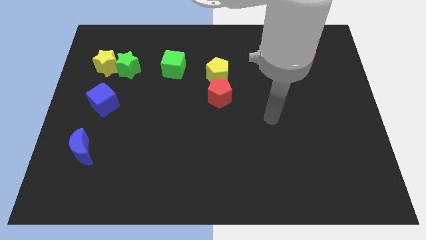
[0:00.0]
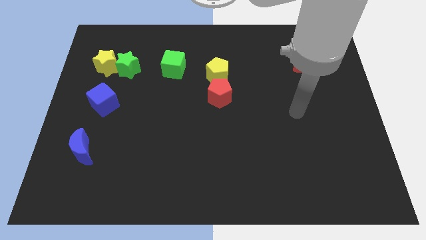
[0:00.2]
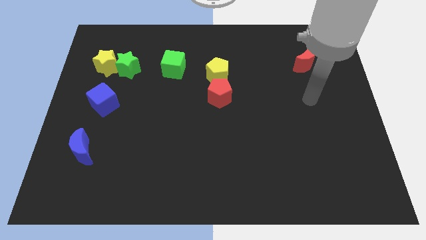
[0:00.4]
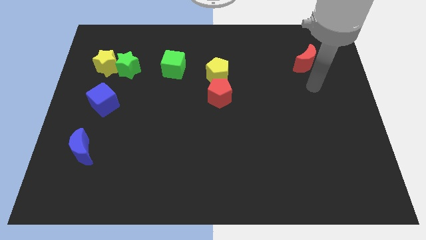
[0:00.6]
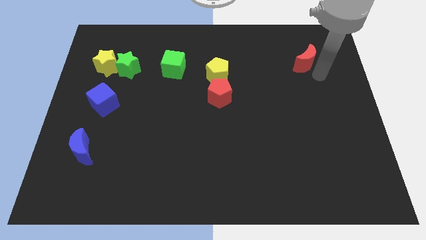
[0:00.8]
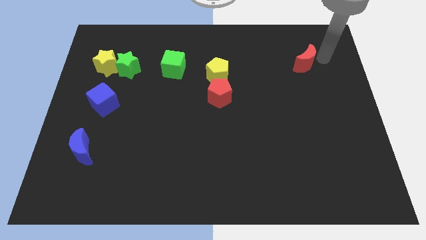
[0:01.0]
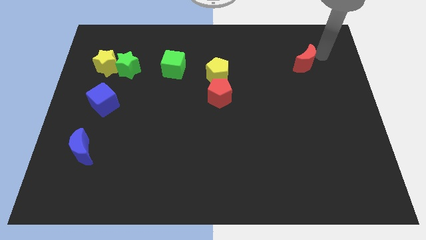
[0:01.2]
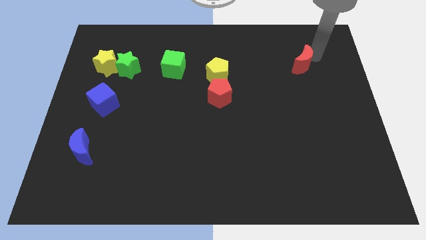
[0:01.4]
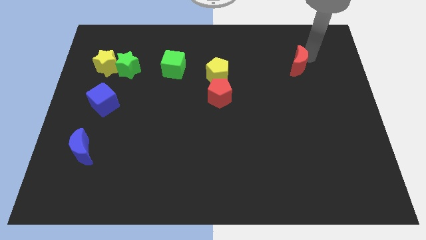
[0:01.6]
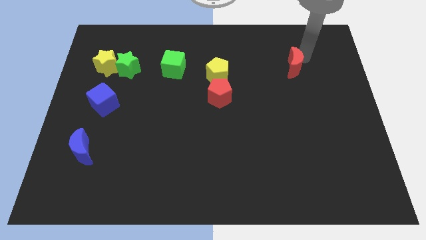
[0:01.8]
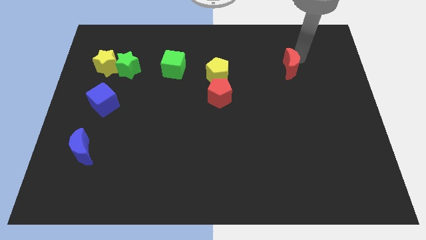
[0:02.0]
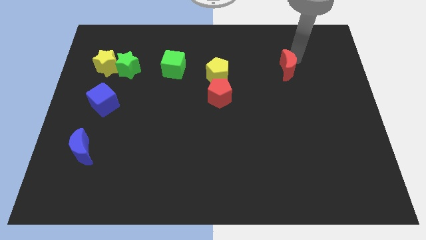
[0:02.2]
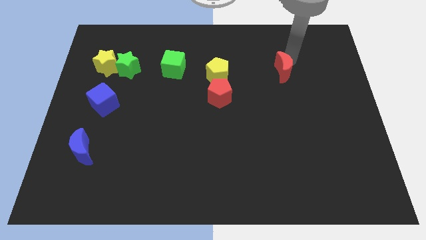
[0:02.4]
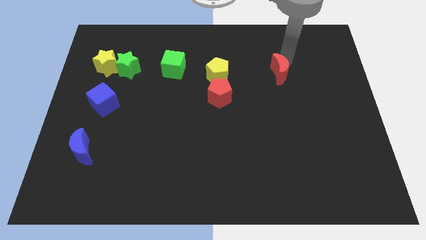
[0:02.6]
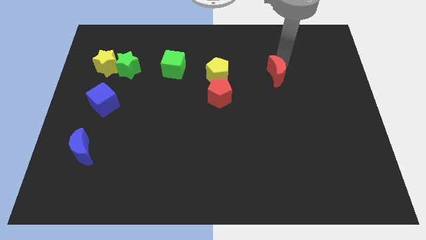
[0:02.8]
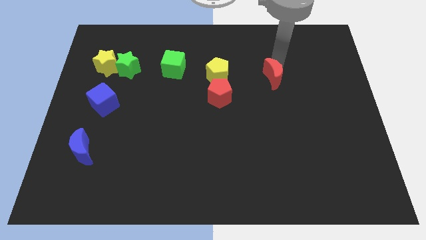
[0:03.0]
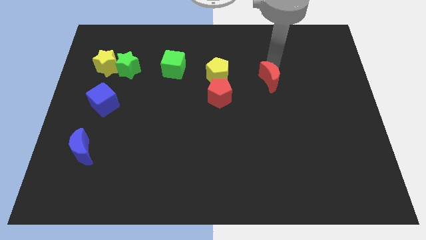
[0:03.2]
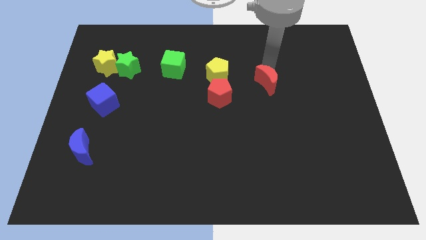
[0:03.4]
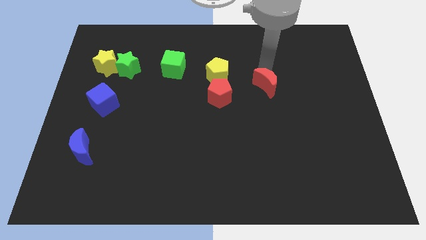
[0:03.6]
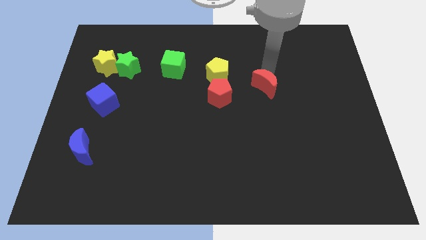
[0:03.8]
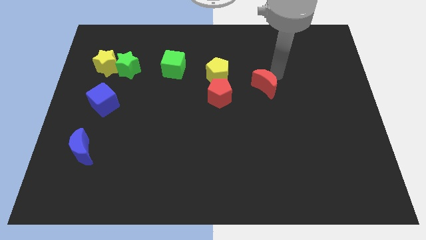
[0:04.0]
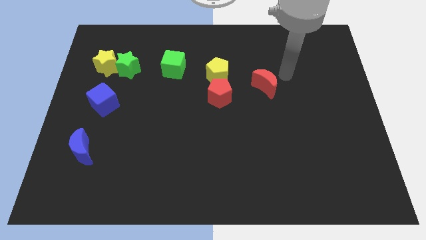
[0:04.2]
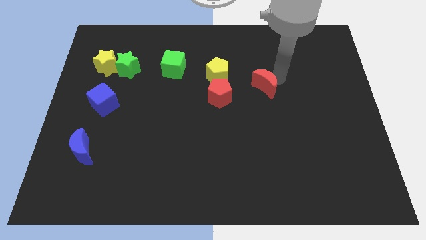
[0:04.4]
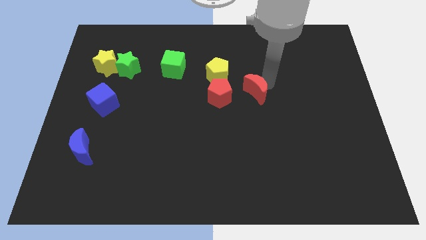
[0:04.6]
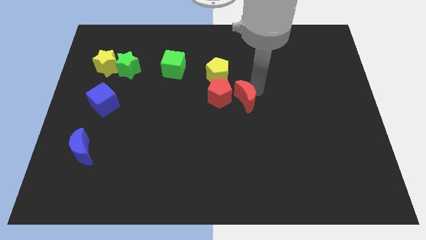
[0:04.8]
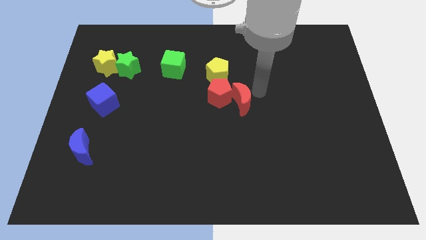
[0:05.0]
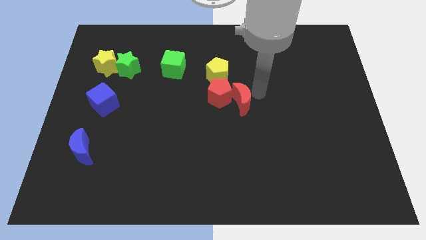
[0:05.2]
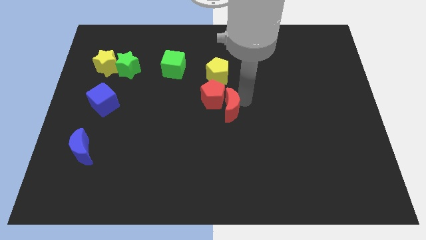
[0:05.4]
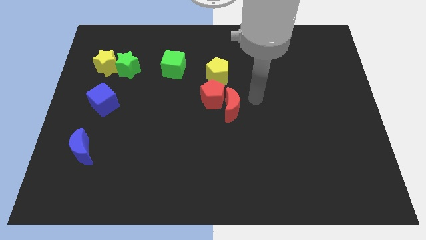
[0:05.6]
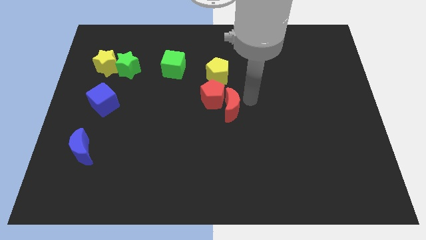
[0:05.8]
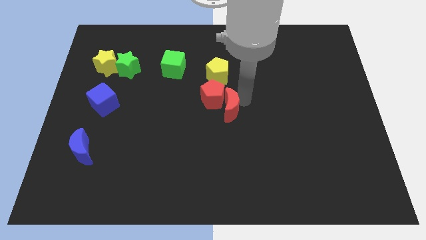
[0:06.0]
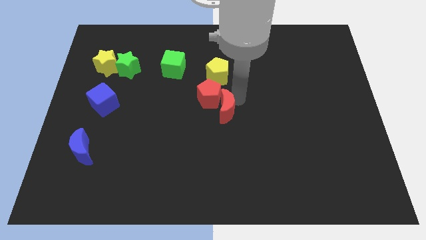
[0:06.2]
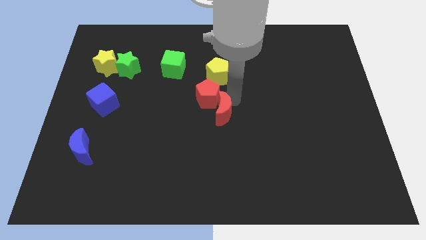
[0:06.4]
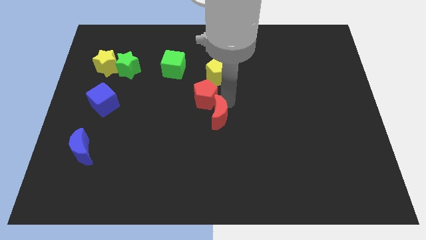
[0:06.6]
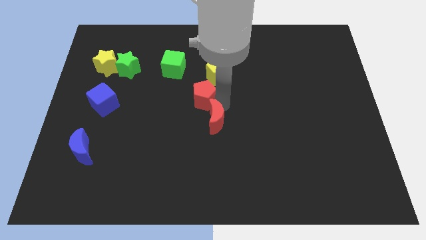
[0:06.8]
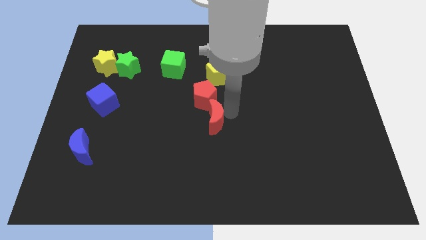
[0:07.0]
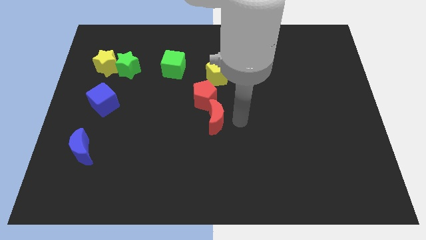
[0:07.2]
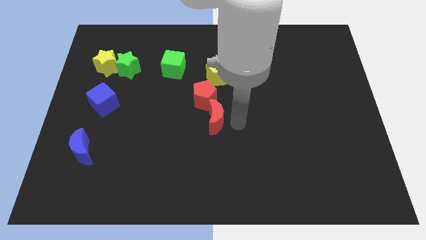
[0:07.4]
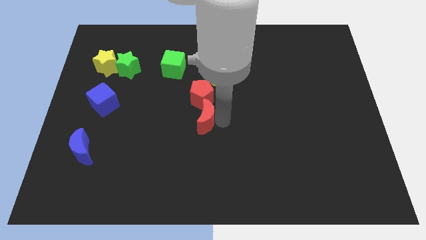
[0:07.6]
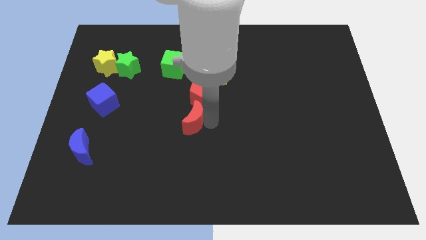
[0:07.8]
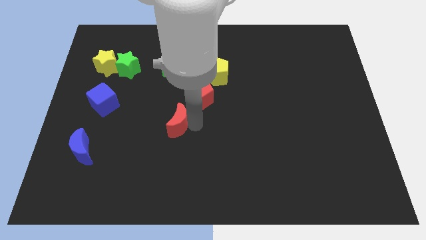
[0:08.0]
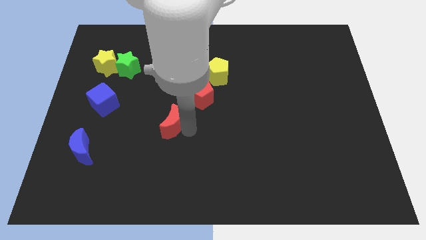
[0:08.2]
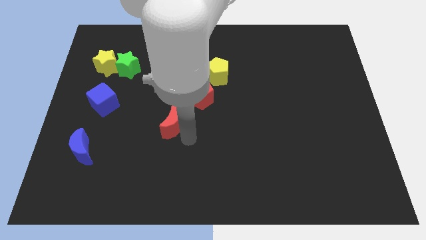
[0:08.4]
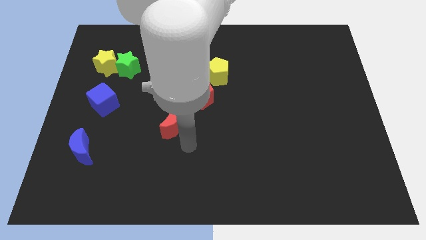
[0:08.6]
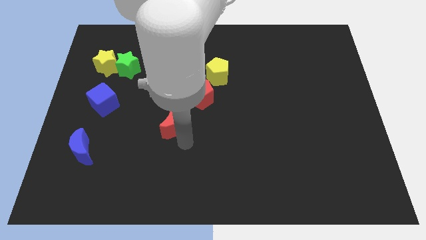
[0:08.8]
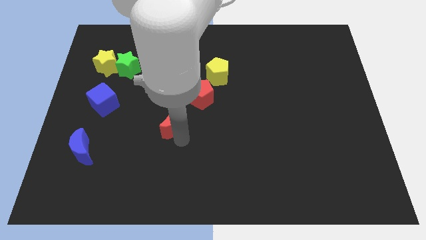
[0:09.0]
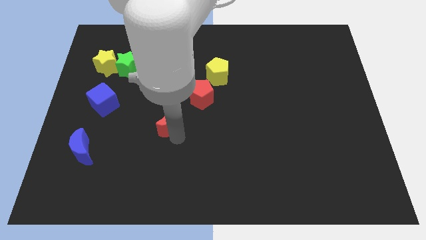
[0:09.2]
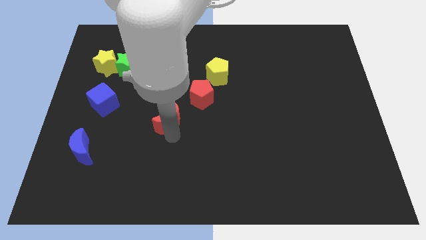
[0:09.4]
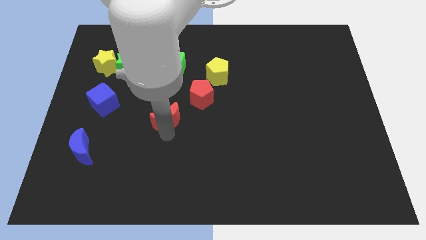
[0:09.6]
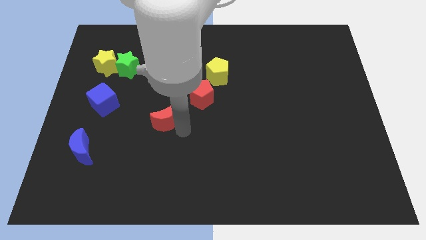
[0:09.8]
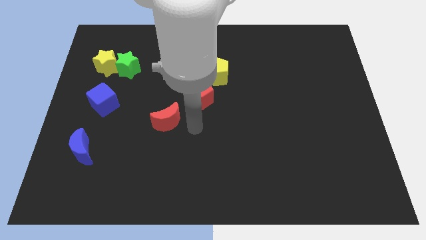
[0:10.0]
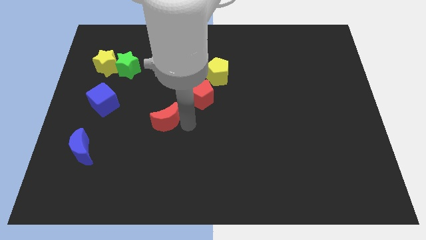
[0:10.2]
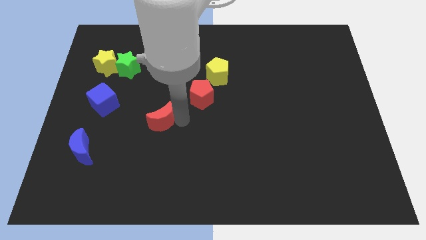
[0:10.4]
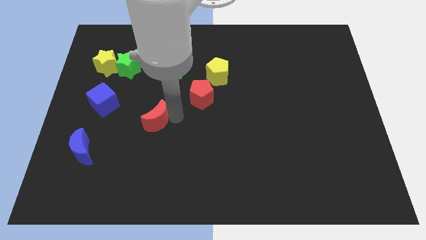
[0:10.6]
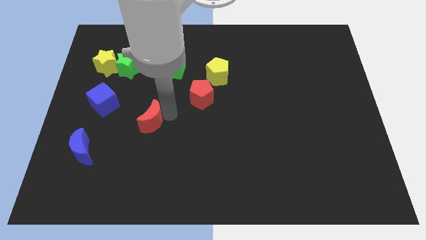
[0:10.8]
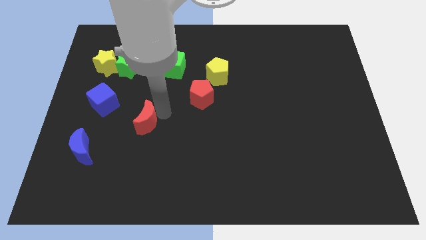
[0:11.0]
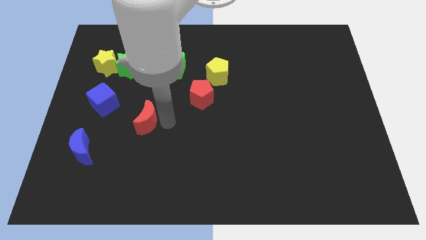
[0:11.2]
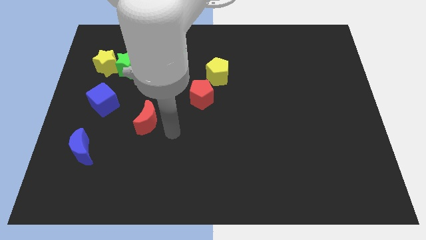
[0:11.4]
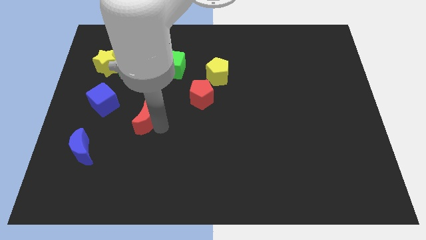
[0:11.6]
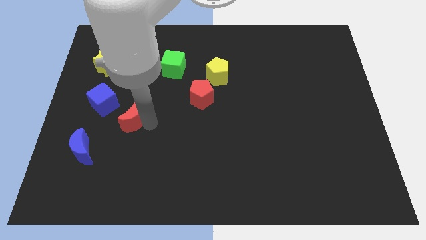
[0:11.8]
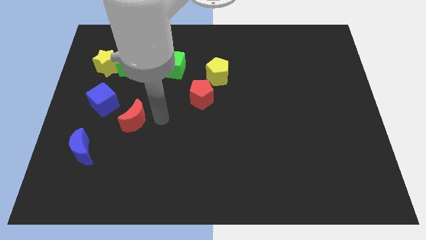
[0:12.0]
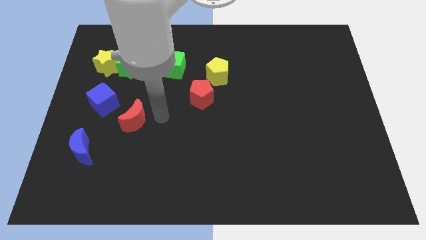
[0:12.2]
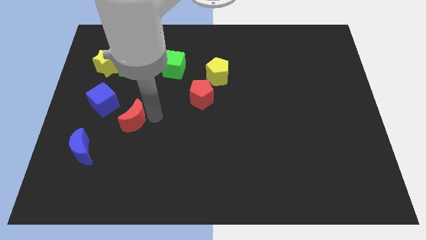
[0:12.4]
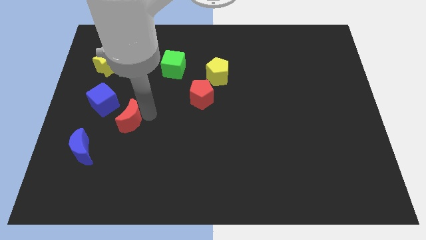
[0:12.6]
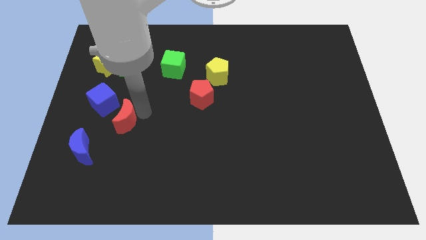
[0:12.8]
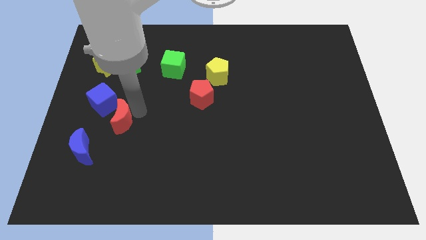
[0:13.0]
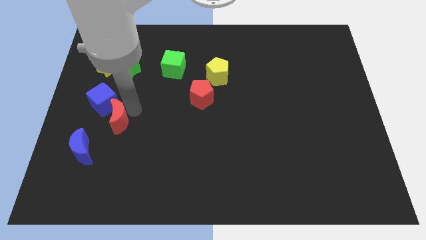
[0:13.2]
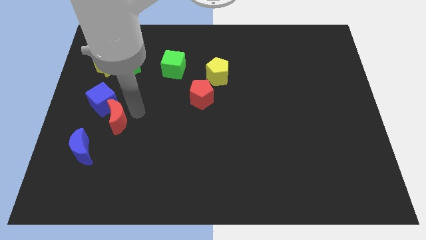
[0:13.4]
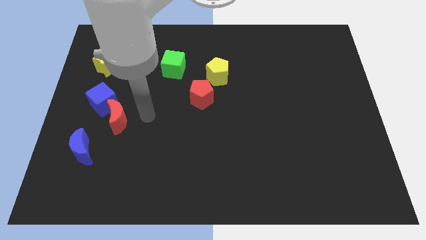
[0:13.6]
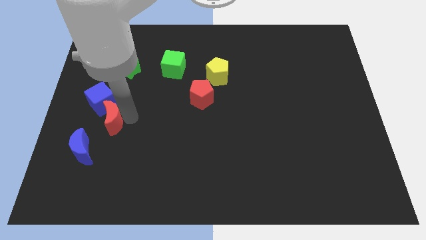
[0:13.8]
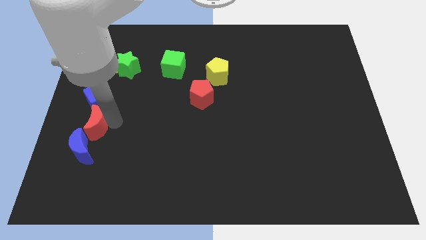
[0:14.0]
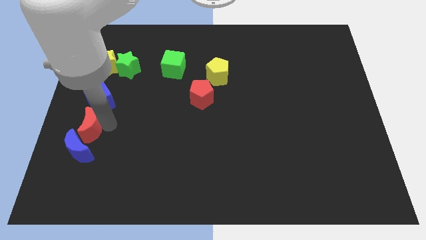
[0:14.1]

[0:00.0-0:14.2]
put the red moon to the left side

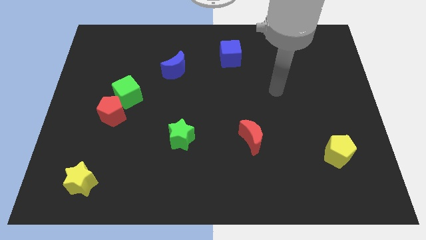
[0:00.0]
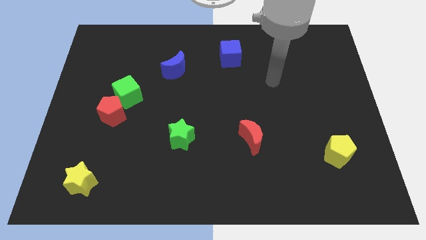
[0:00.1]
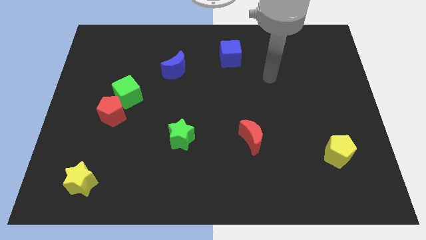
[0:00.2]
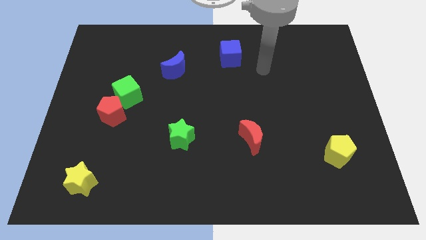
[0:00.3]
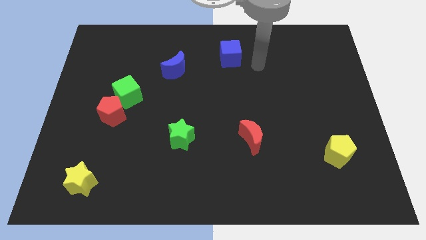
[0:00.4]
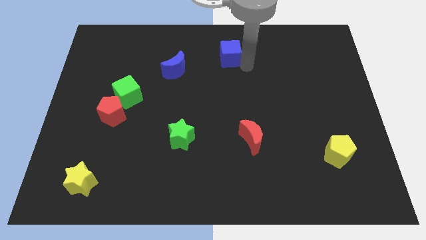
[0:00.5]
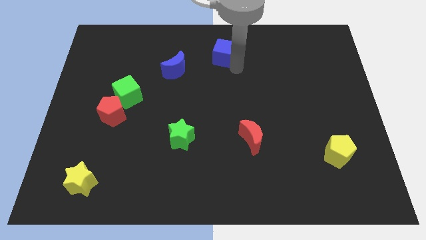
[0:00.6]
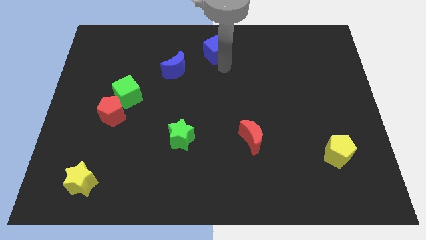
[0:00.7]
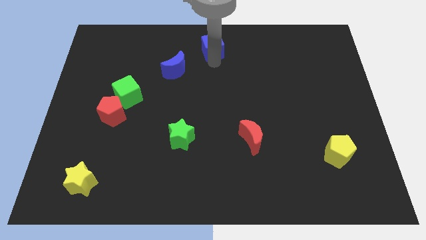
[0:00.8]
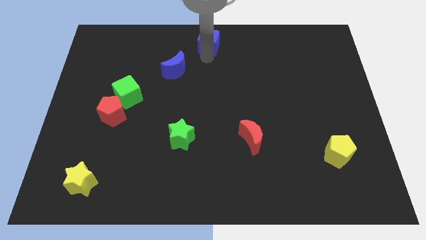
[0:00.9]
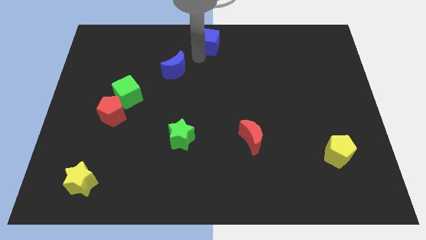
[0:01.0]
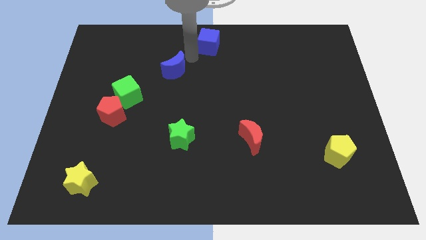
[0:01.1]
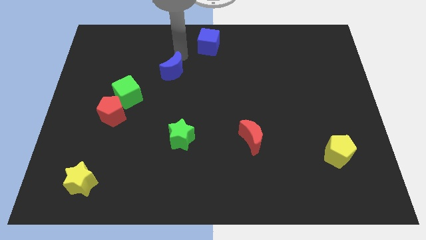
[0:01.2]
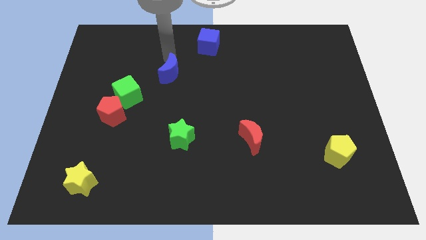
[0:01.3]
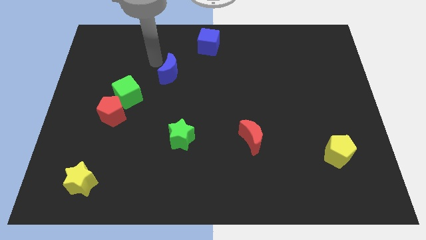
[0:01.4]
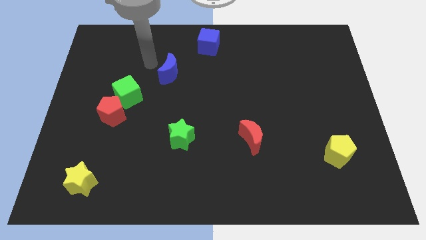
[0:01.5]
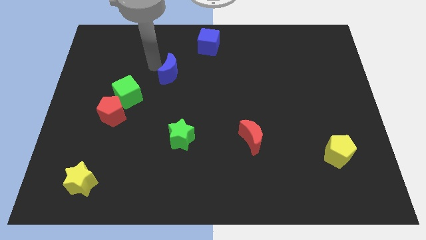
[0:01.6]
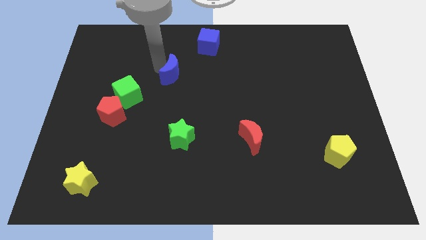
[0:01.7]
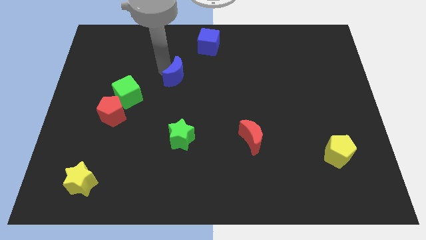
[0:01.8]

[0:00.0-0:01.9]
slide the blue moon to the middle
